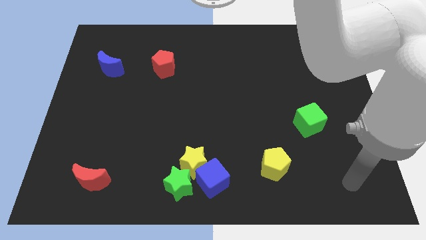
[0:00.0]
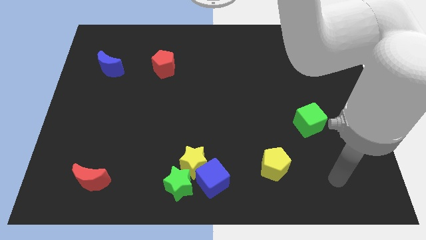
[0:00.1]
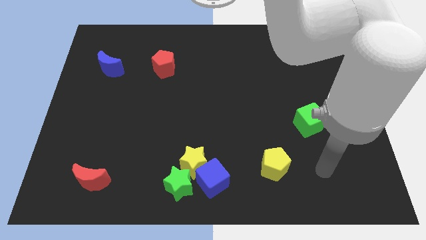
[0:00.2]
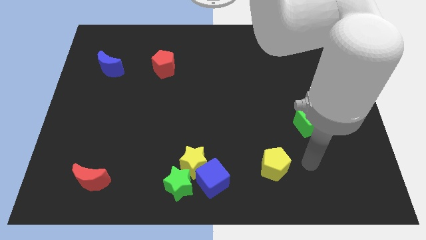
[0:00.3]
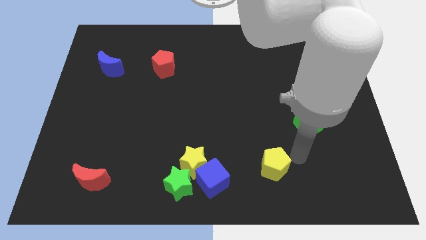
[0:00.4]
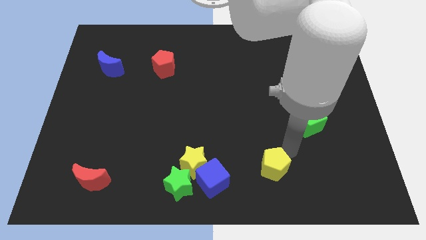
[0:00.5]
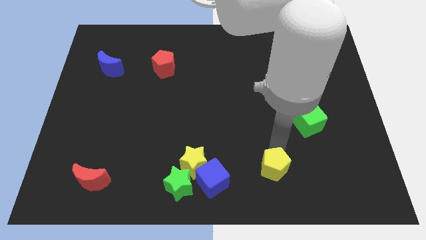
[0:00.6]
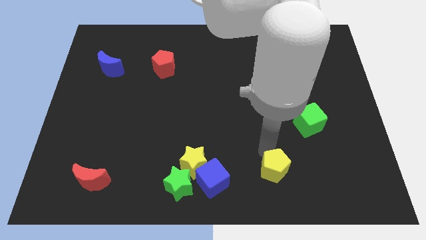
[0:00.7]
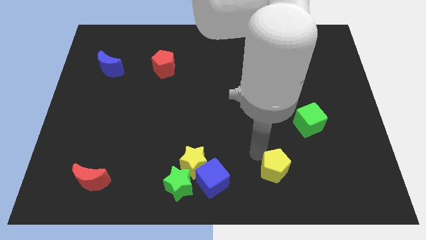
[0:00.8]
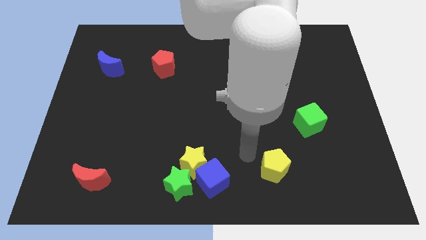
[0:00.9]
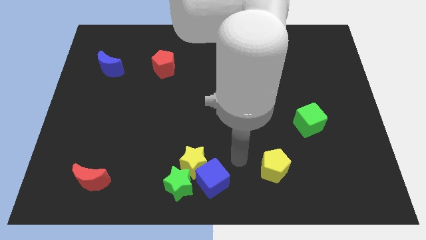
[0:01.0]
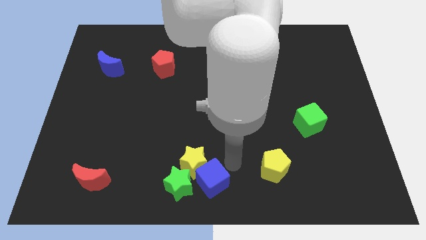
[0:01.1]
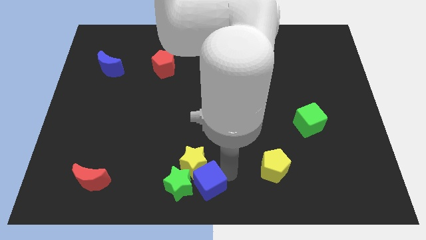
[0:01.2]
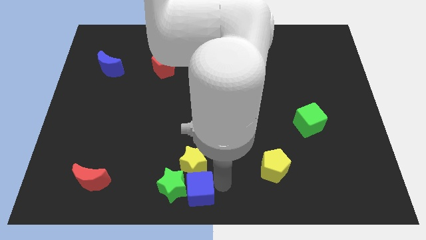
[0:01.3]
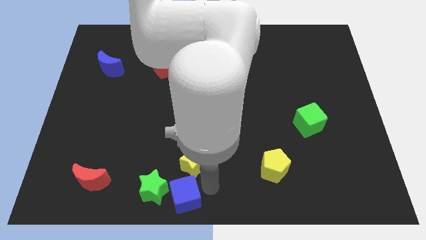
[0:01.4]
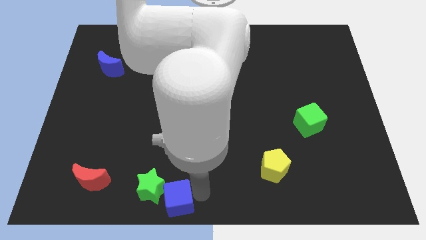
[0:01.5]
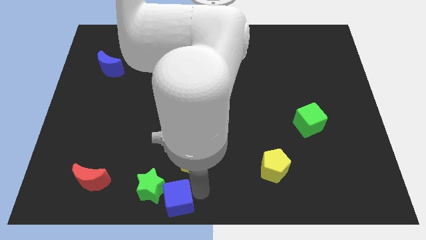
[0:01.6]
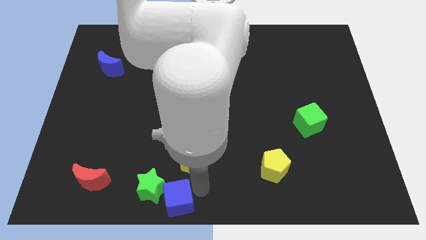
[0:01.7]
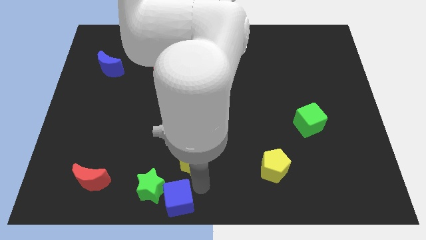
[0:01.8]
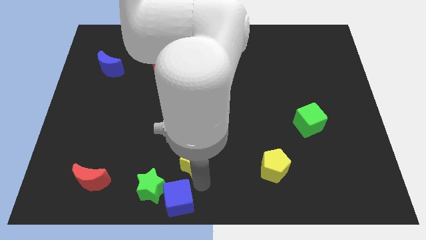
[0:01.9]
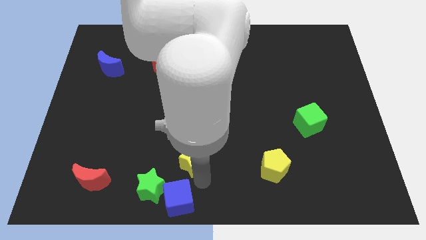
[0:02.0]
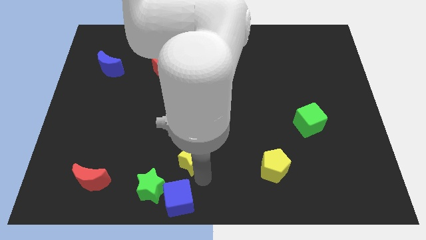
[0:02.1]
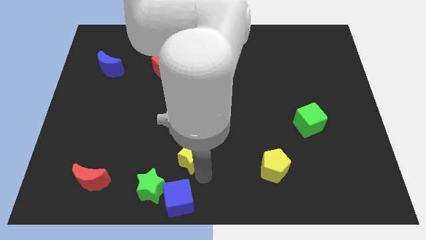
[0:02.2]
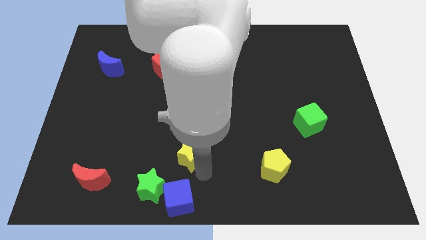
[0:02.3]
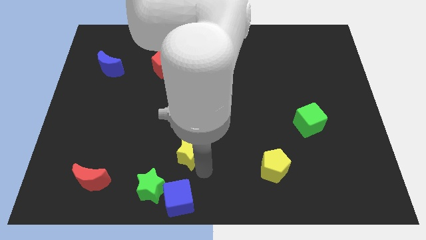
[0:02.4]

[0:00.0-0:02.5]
pull the yellow star apart from the blue cube and green star

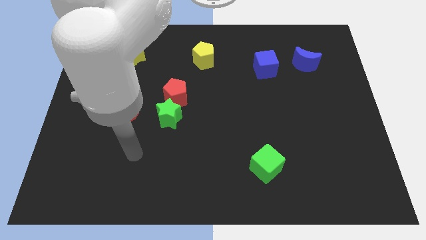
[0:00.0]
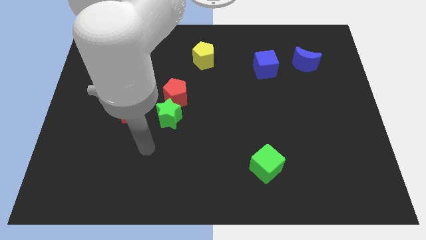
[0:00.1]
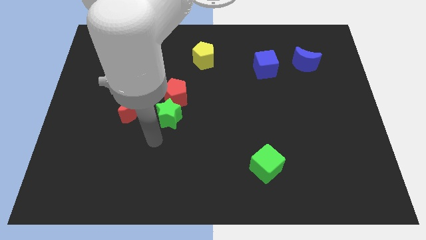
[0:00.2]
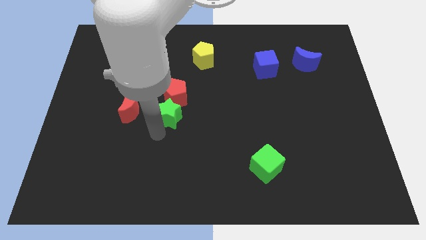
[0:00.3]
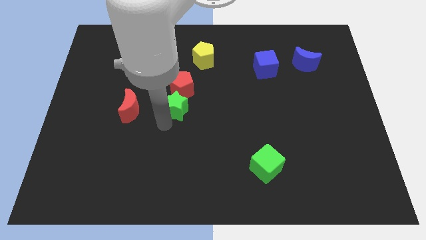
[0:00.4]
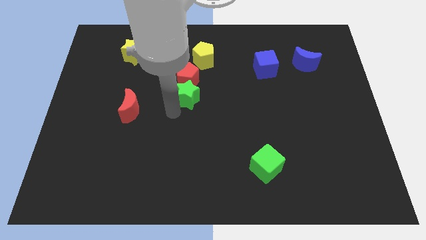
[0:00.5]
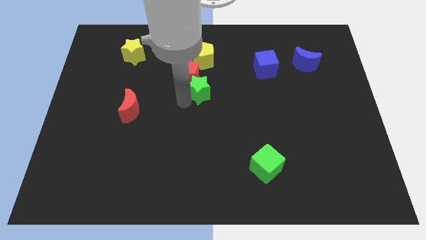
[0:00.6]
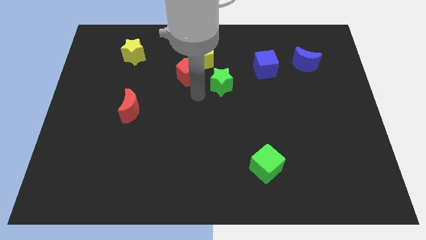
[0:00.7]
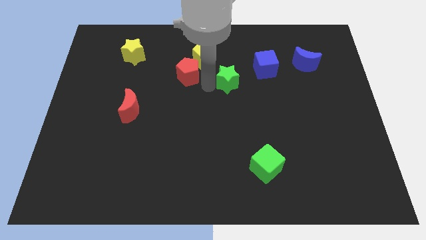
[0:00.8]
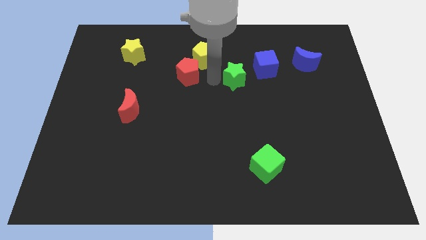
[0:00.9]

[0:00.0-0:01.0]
separate the red pentagon from the green star

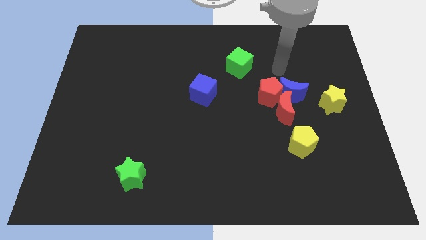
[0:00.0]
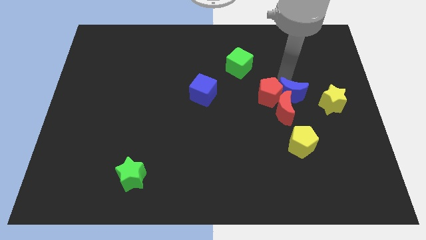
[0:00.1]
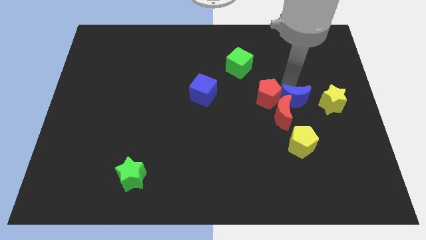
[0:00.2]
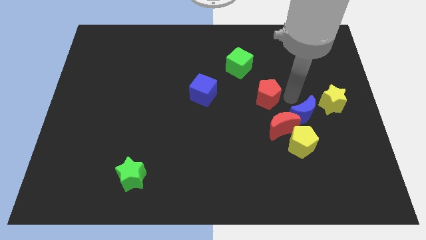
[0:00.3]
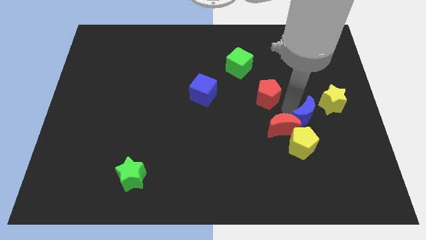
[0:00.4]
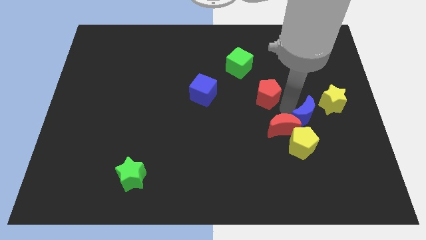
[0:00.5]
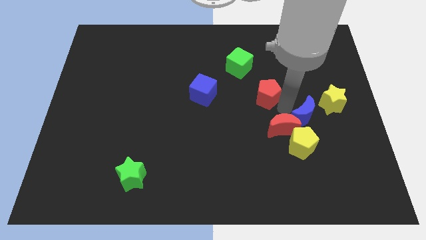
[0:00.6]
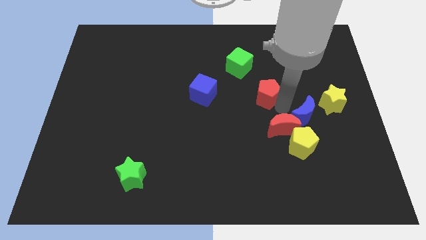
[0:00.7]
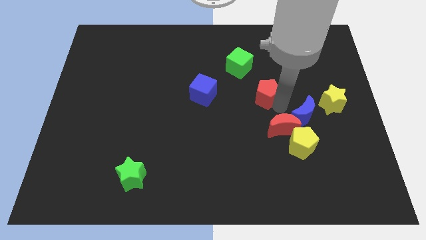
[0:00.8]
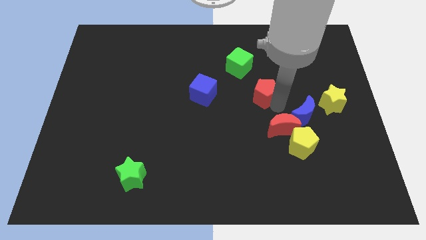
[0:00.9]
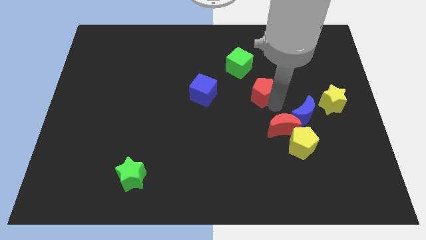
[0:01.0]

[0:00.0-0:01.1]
separate the red pentagon from the blue moon and red moon

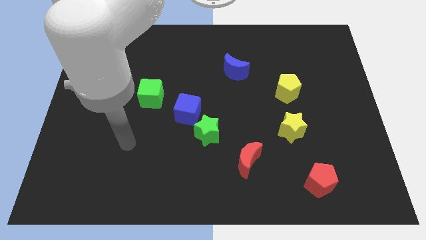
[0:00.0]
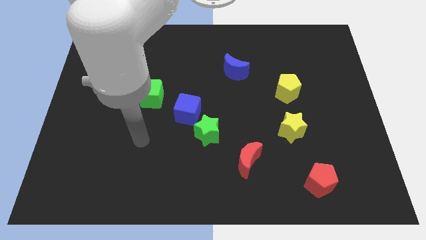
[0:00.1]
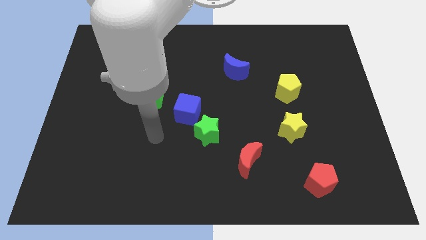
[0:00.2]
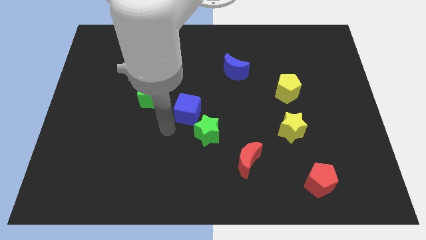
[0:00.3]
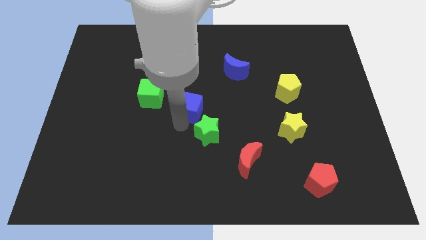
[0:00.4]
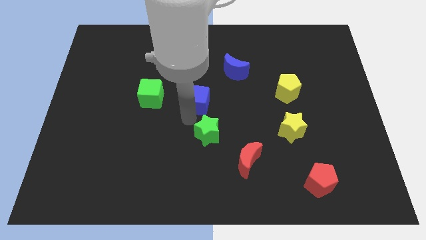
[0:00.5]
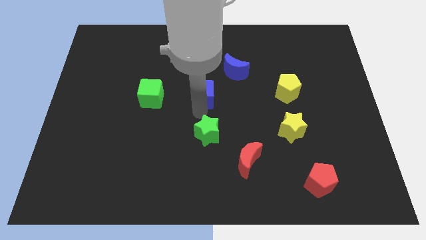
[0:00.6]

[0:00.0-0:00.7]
separate the green star from the blue cube

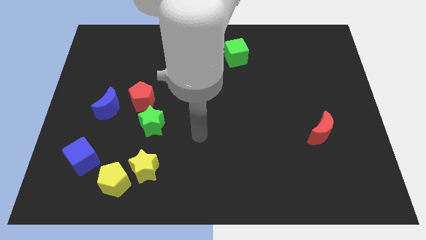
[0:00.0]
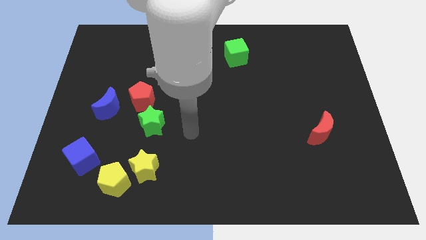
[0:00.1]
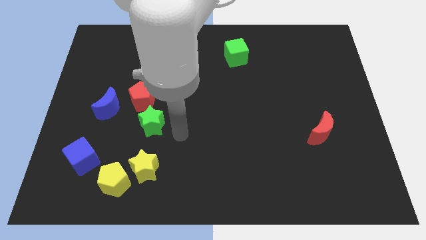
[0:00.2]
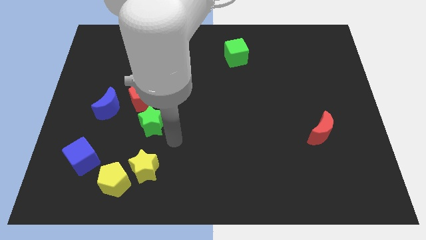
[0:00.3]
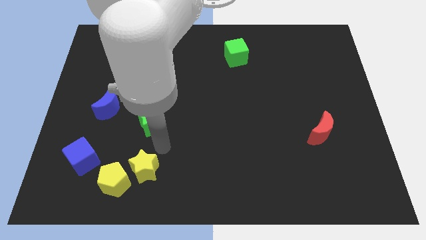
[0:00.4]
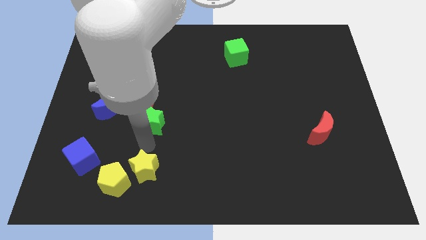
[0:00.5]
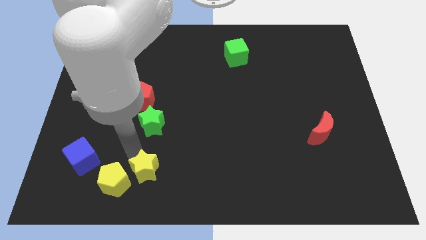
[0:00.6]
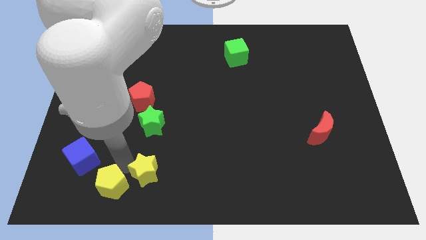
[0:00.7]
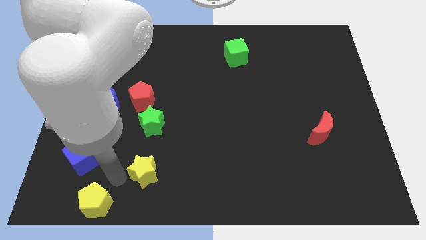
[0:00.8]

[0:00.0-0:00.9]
move the yellow star away from the yellow pentagon

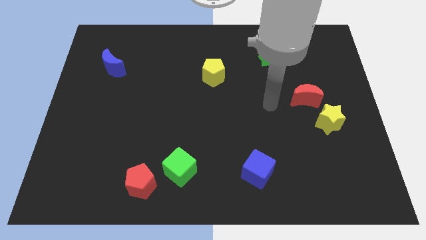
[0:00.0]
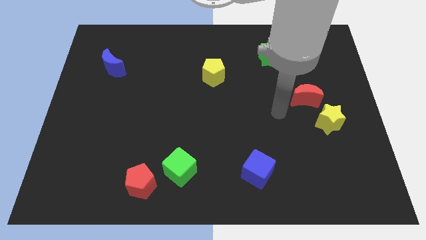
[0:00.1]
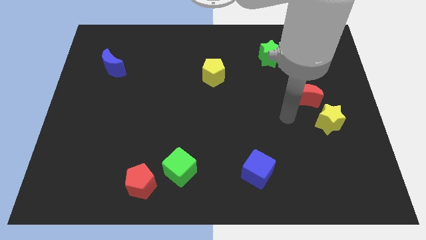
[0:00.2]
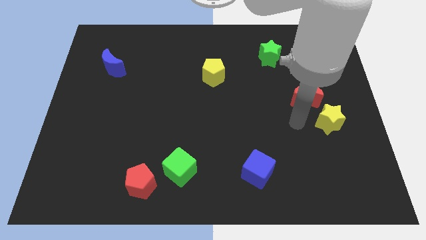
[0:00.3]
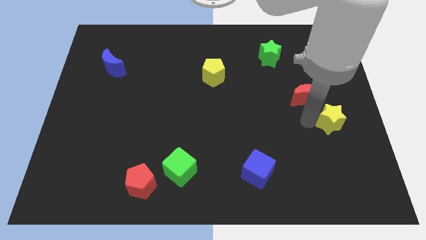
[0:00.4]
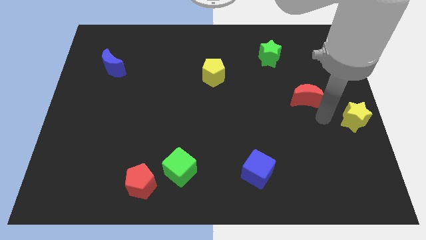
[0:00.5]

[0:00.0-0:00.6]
move the red moon away from the yellow star

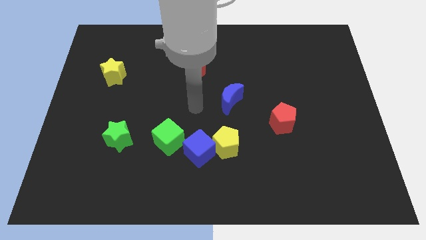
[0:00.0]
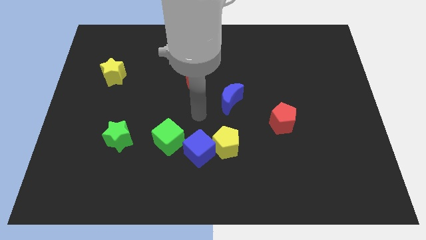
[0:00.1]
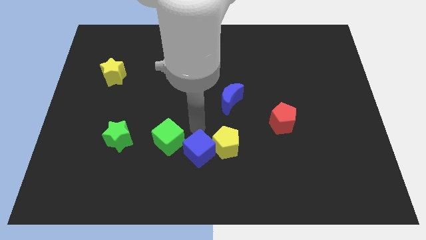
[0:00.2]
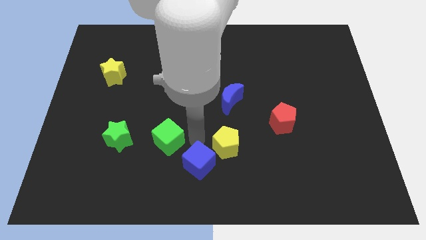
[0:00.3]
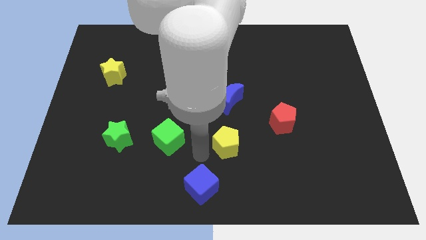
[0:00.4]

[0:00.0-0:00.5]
separate the yellow pentagon from the blue cube

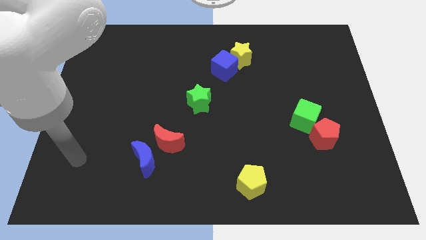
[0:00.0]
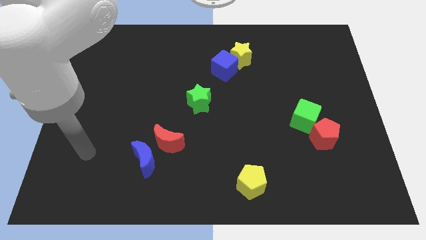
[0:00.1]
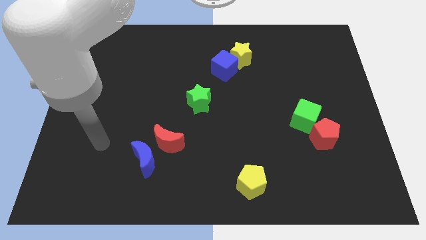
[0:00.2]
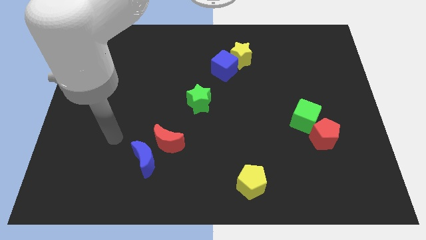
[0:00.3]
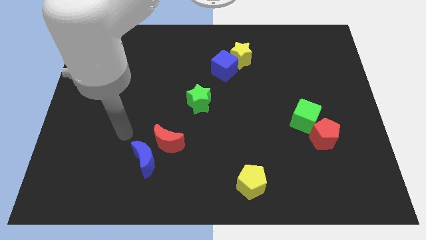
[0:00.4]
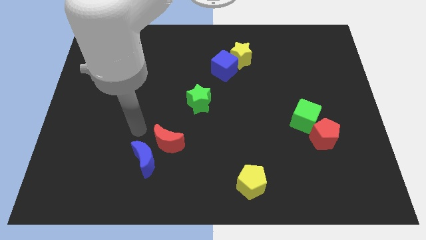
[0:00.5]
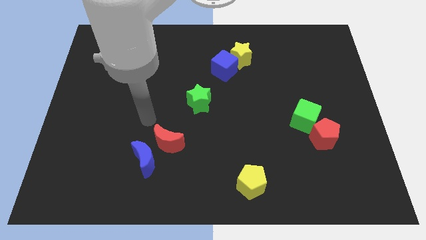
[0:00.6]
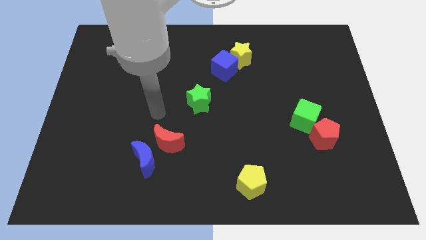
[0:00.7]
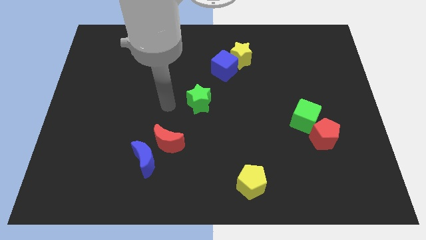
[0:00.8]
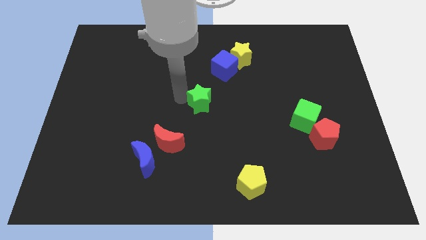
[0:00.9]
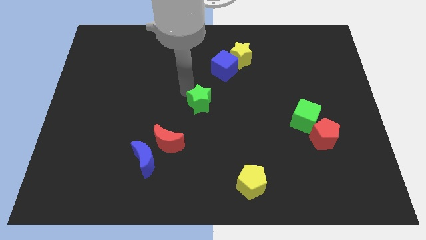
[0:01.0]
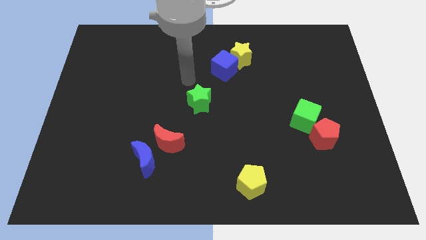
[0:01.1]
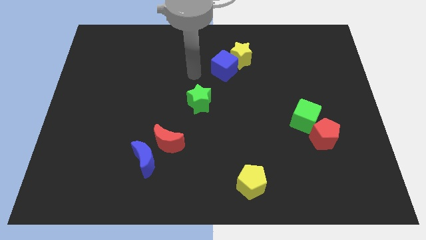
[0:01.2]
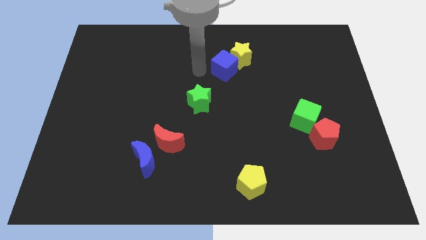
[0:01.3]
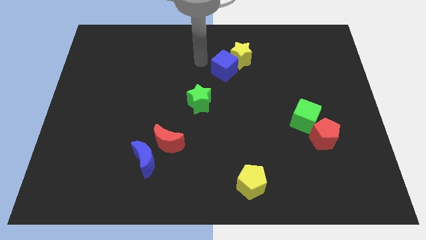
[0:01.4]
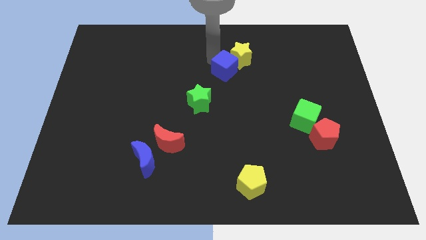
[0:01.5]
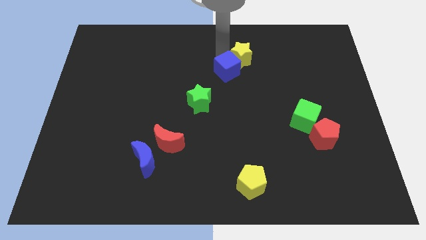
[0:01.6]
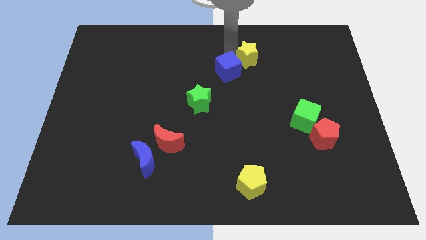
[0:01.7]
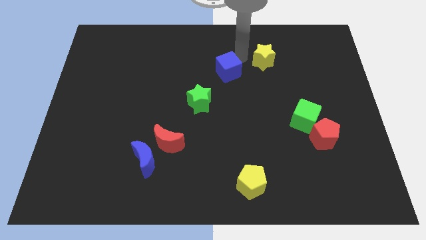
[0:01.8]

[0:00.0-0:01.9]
separate the blue cube from the yellow star

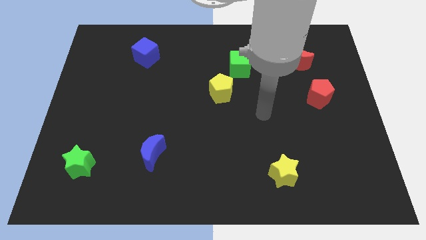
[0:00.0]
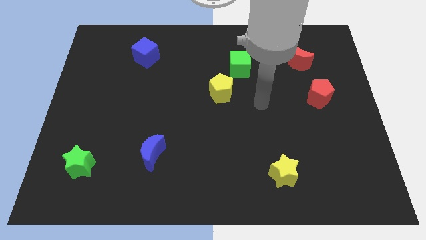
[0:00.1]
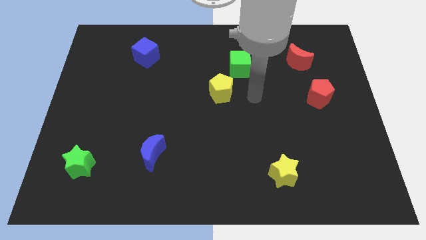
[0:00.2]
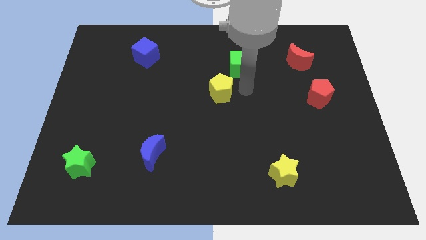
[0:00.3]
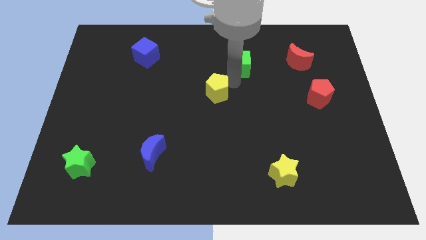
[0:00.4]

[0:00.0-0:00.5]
separate the green cube from the yellow pentagon
